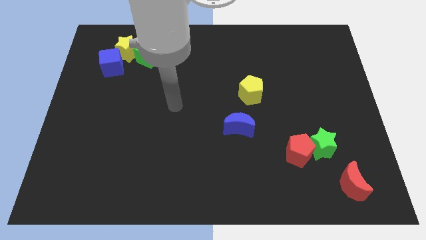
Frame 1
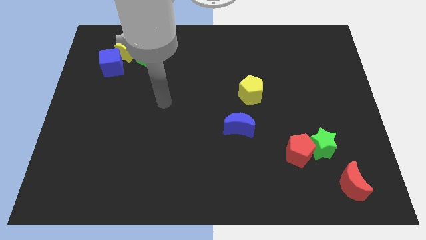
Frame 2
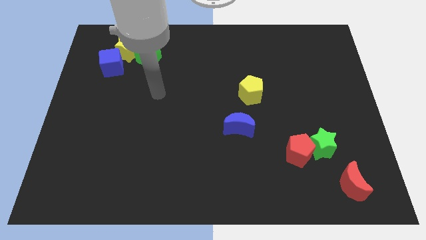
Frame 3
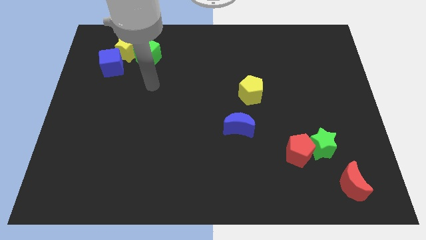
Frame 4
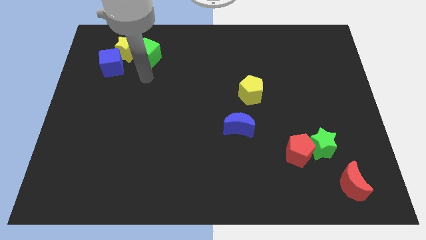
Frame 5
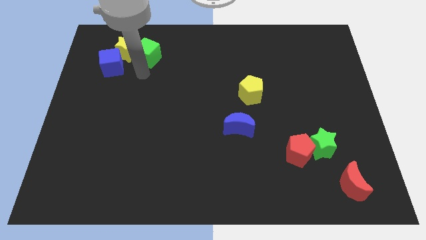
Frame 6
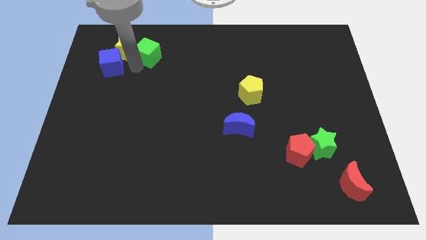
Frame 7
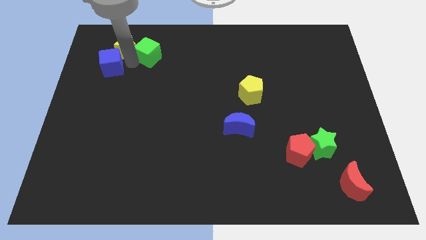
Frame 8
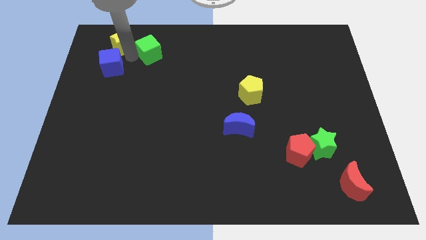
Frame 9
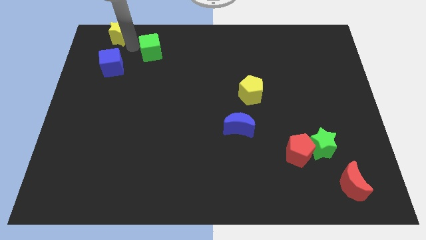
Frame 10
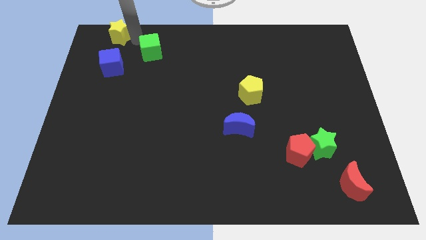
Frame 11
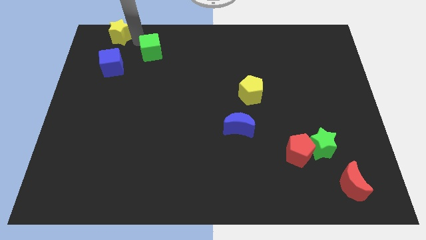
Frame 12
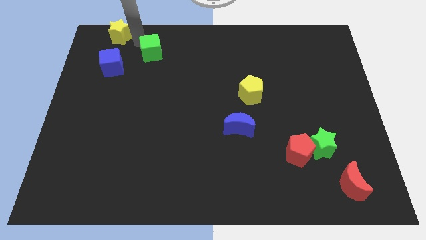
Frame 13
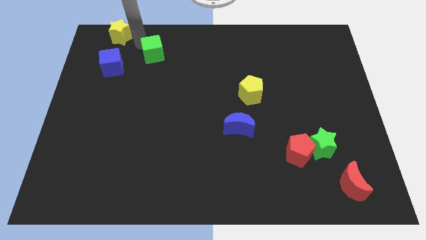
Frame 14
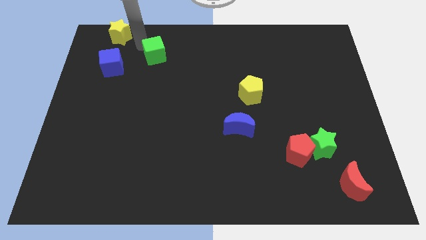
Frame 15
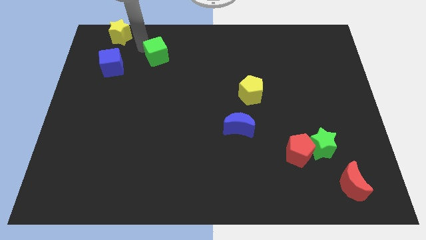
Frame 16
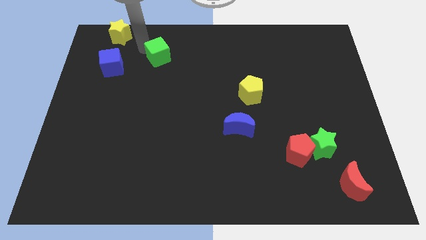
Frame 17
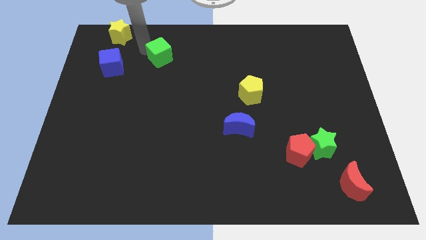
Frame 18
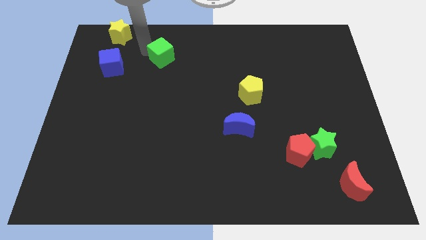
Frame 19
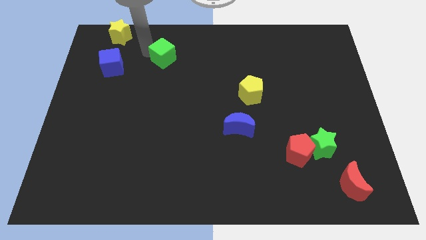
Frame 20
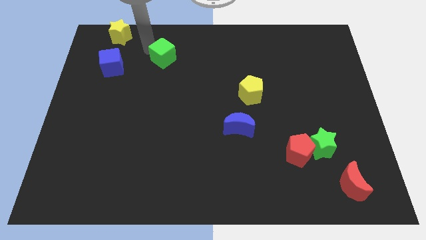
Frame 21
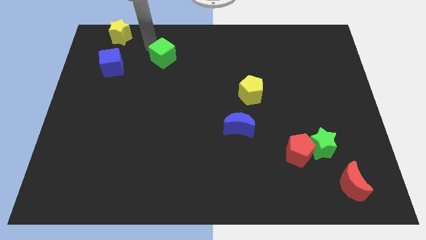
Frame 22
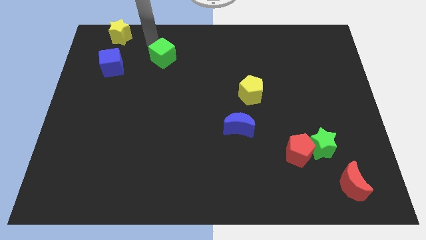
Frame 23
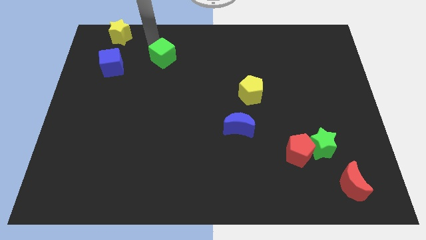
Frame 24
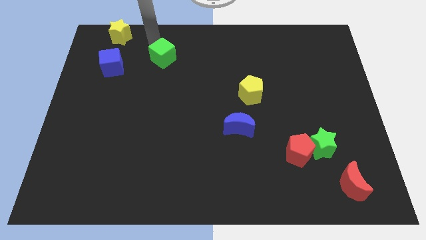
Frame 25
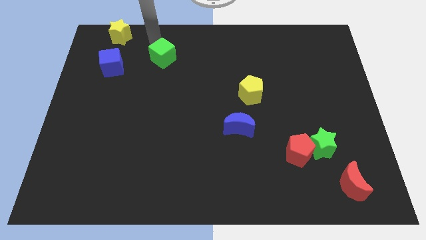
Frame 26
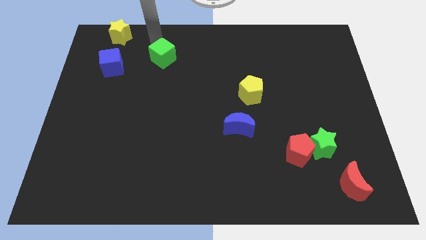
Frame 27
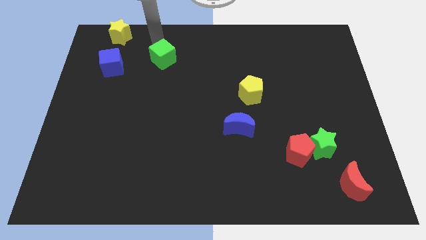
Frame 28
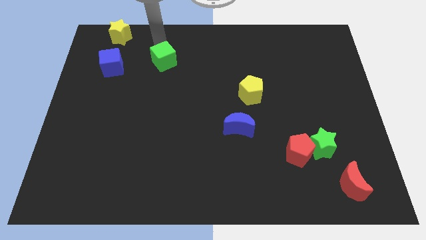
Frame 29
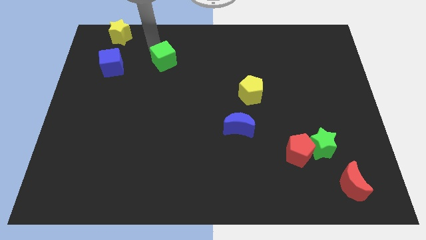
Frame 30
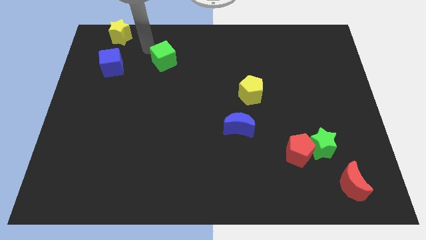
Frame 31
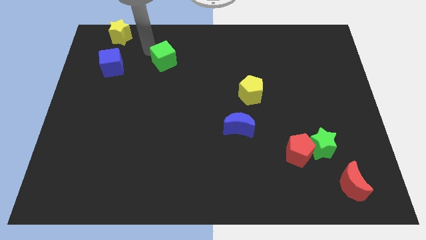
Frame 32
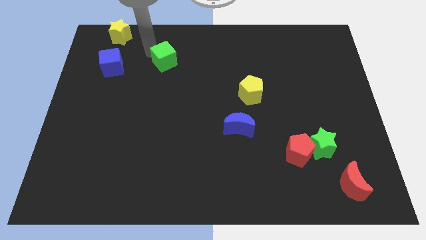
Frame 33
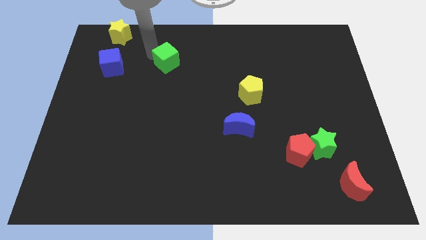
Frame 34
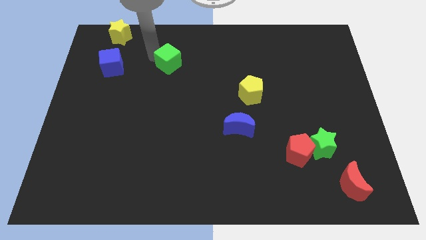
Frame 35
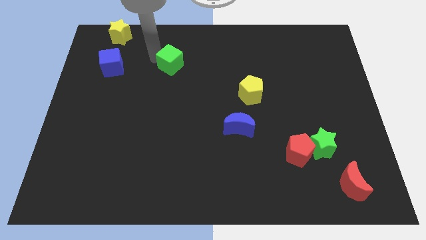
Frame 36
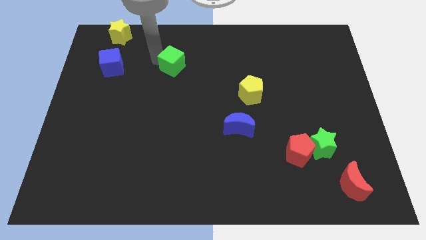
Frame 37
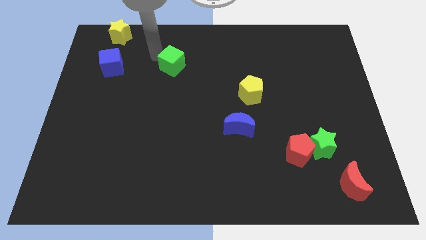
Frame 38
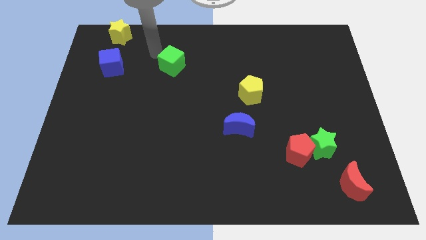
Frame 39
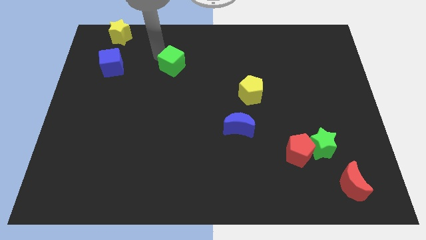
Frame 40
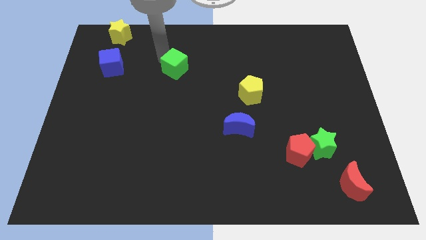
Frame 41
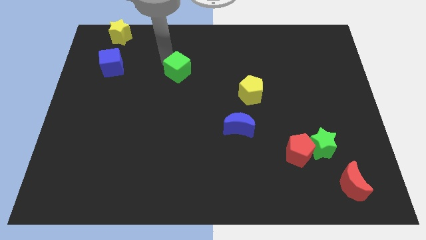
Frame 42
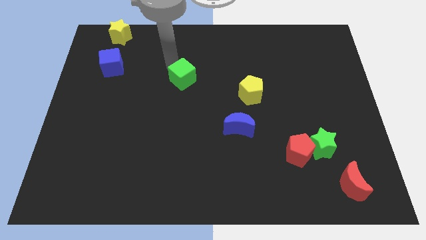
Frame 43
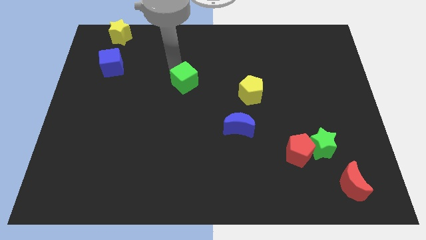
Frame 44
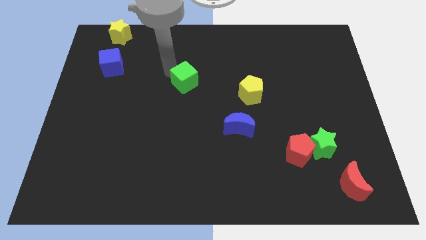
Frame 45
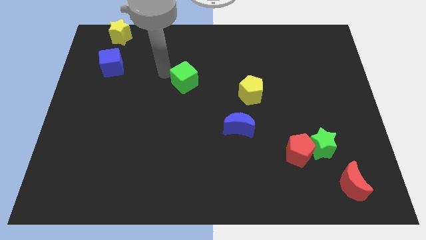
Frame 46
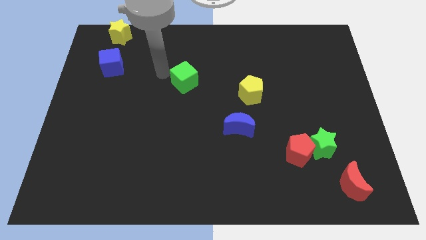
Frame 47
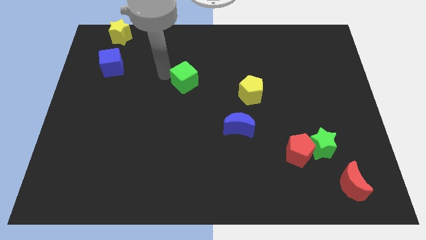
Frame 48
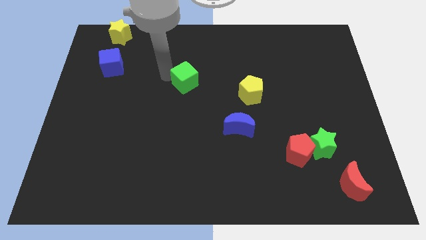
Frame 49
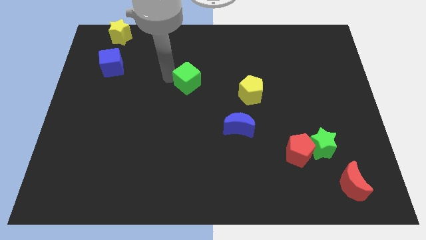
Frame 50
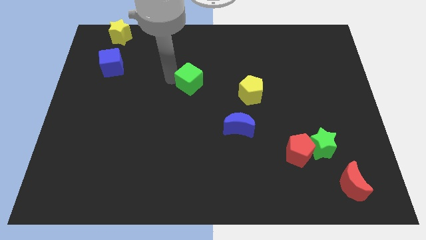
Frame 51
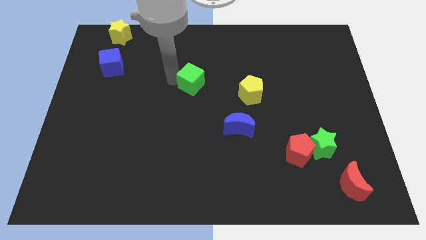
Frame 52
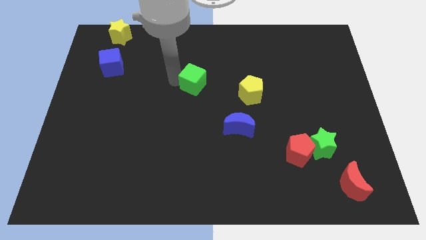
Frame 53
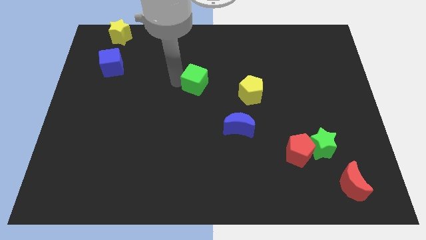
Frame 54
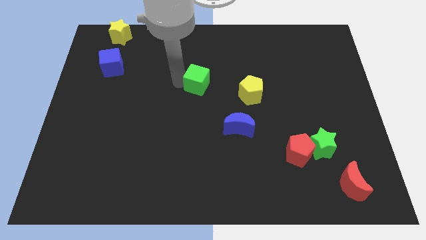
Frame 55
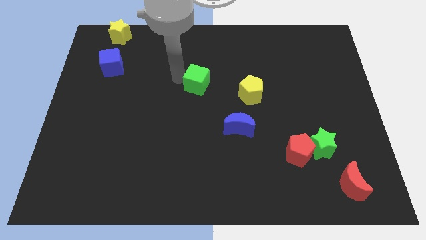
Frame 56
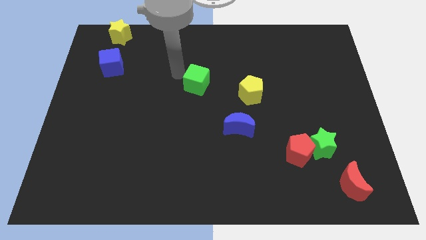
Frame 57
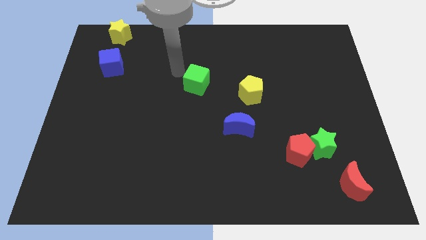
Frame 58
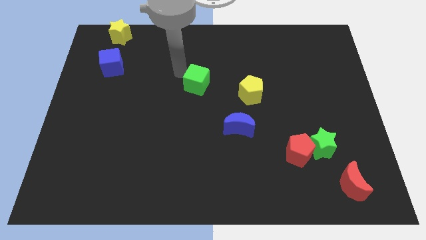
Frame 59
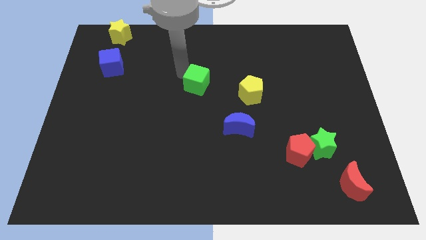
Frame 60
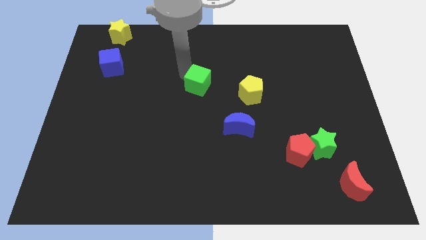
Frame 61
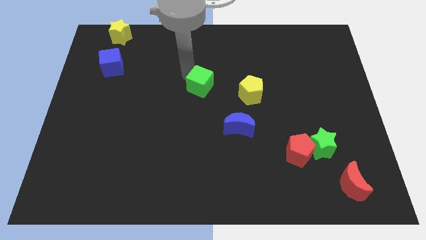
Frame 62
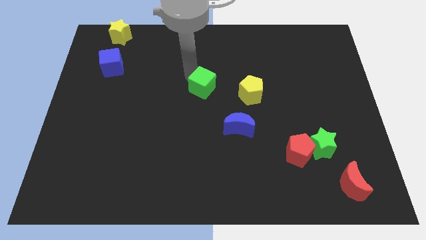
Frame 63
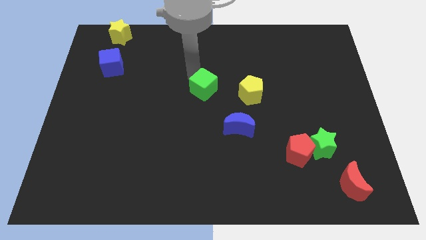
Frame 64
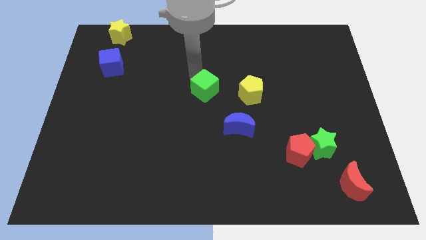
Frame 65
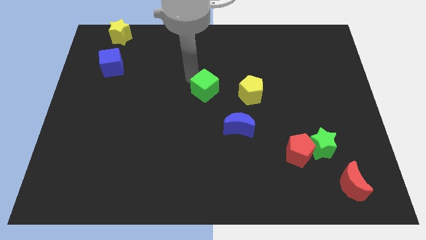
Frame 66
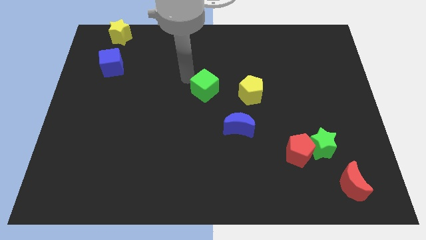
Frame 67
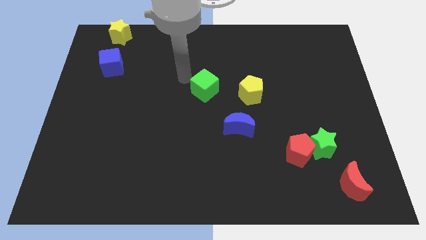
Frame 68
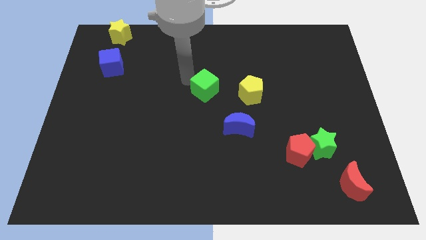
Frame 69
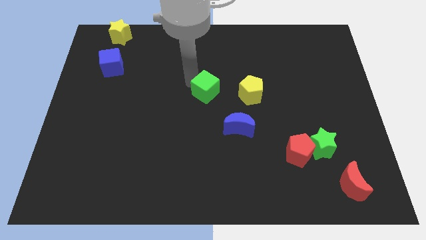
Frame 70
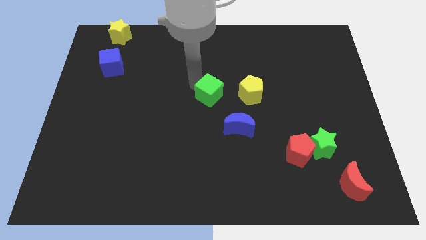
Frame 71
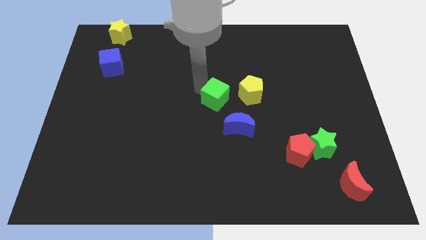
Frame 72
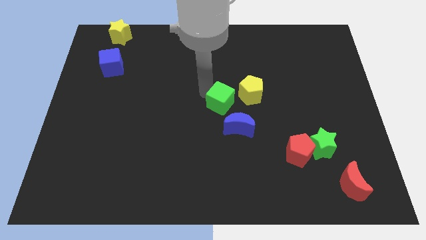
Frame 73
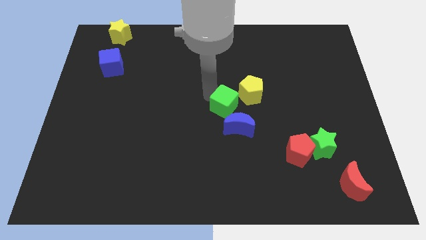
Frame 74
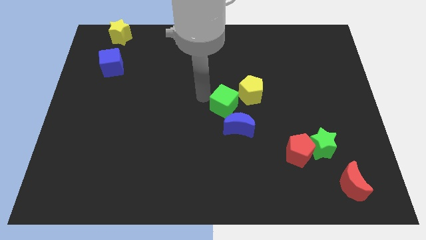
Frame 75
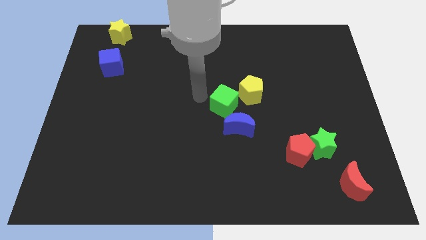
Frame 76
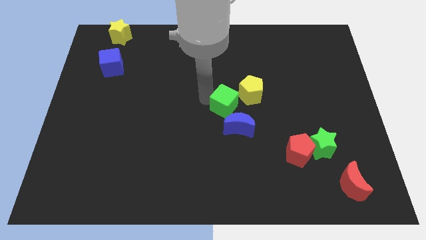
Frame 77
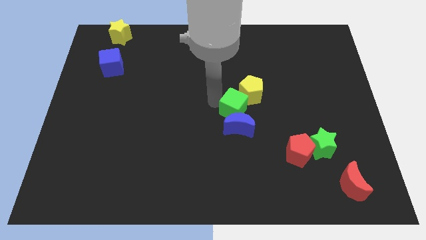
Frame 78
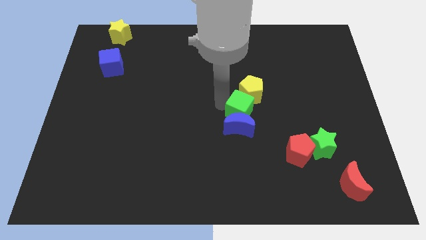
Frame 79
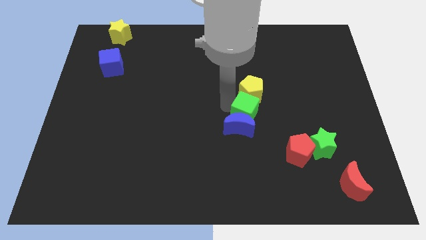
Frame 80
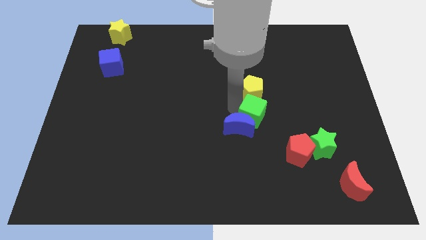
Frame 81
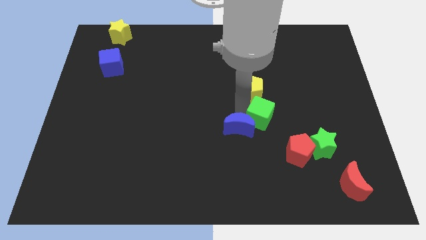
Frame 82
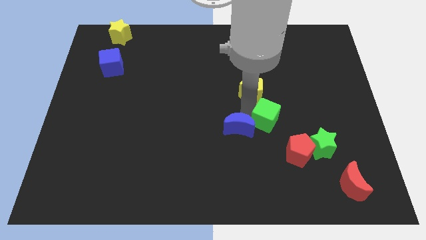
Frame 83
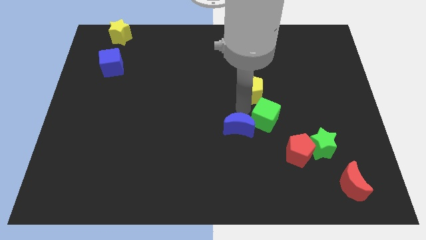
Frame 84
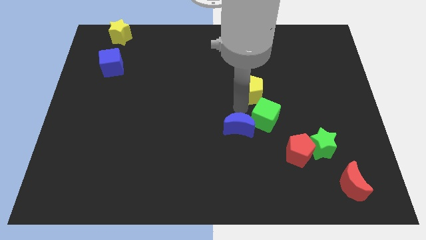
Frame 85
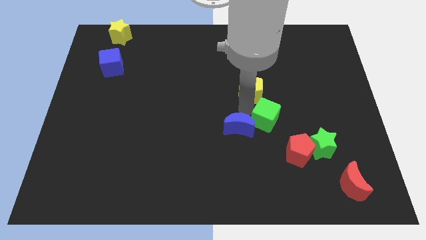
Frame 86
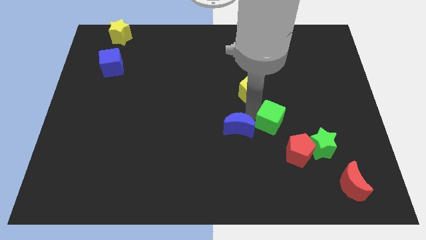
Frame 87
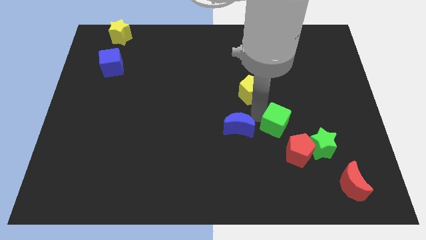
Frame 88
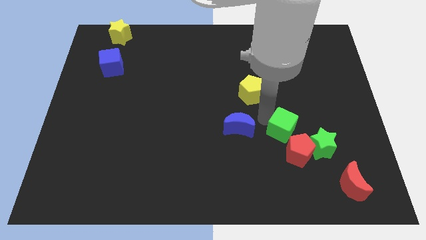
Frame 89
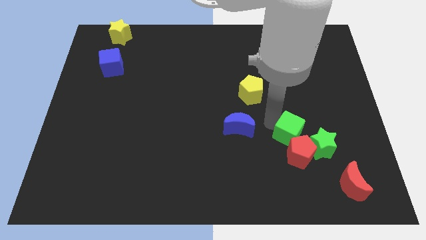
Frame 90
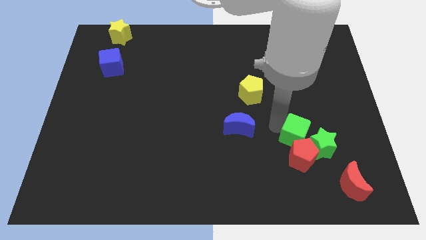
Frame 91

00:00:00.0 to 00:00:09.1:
put the green cube close to the green star
